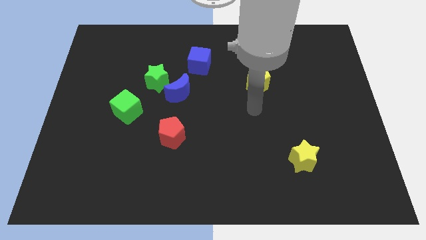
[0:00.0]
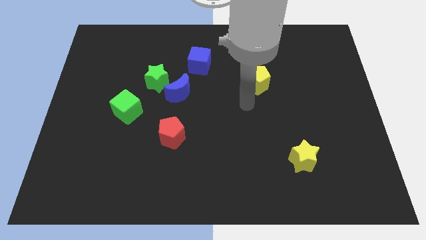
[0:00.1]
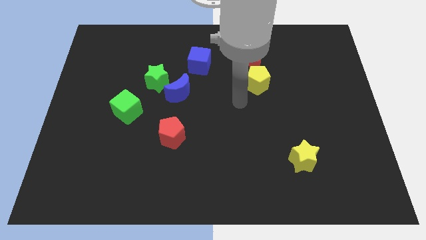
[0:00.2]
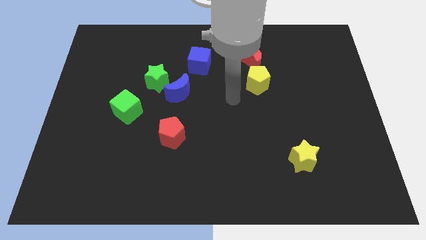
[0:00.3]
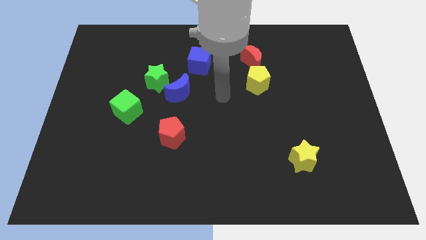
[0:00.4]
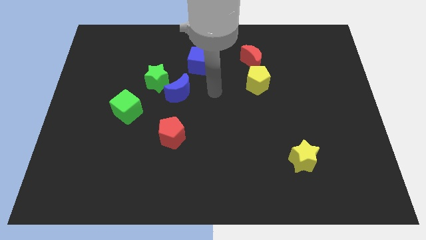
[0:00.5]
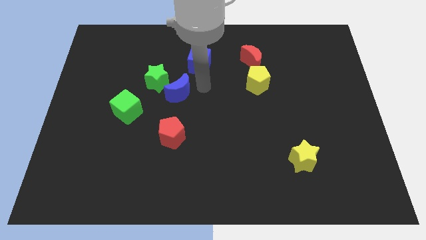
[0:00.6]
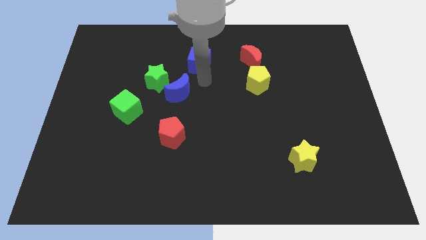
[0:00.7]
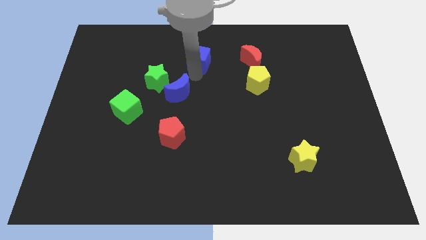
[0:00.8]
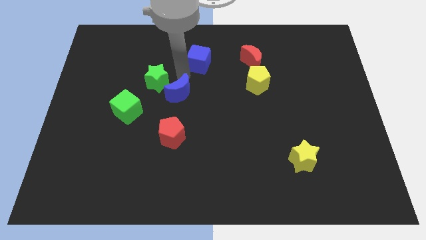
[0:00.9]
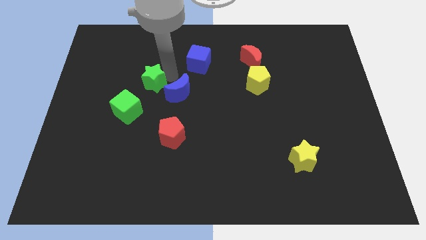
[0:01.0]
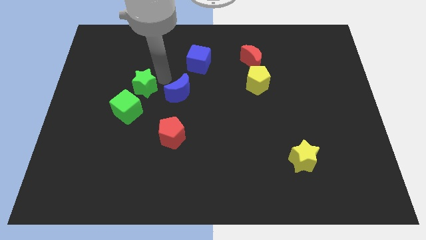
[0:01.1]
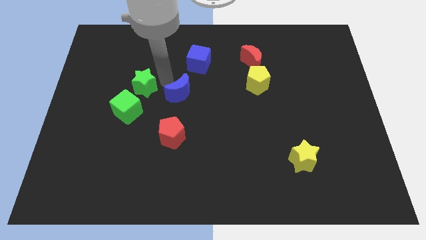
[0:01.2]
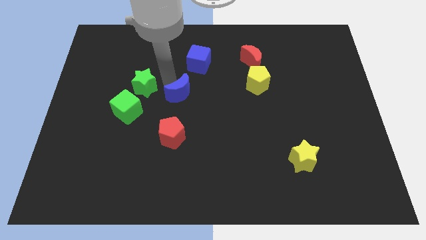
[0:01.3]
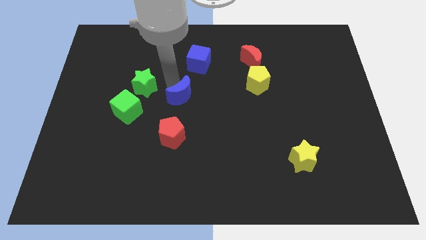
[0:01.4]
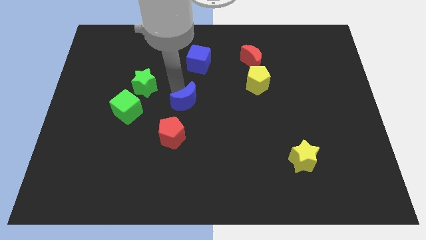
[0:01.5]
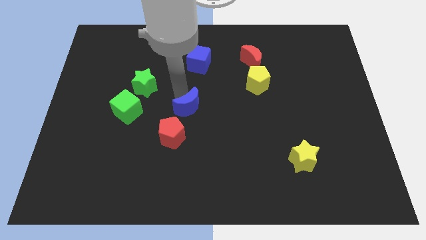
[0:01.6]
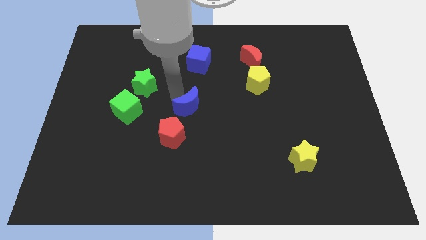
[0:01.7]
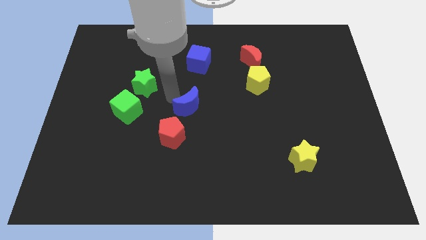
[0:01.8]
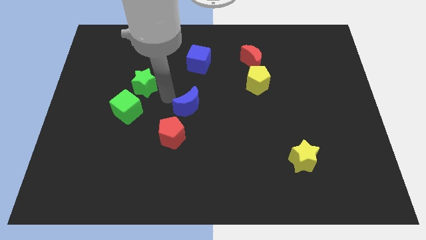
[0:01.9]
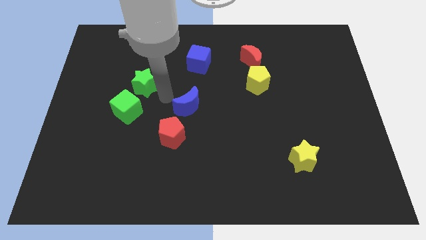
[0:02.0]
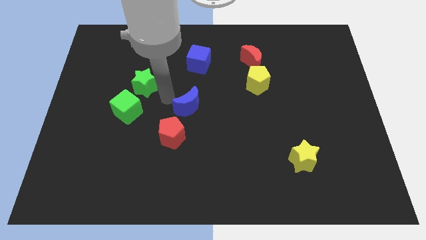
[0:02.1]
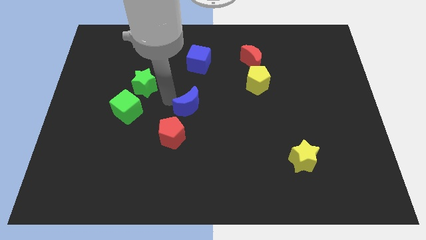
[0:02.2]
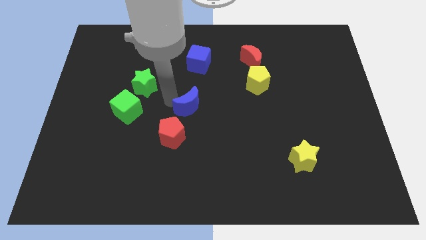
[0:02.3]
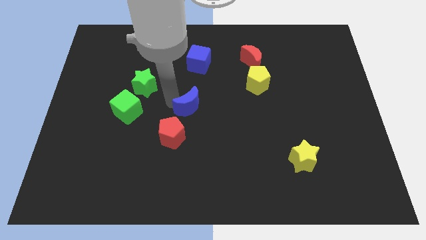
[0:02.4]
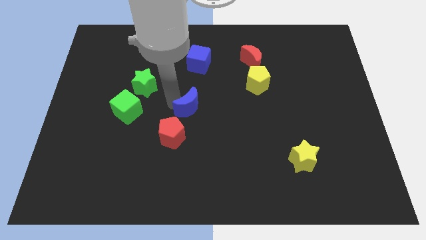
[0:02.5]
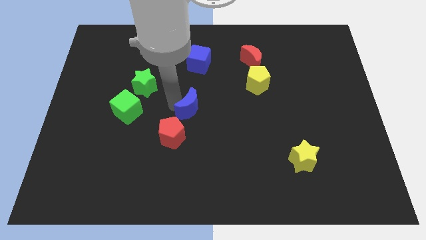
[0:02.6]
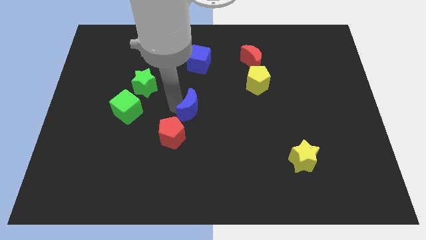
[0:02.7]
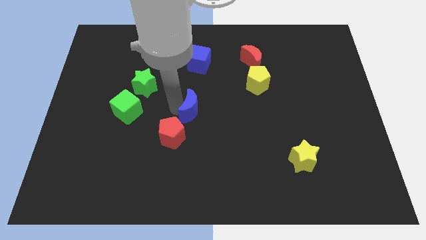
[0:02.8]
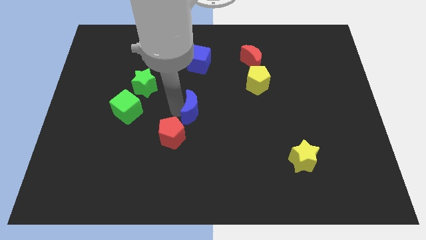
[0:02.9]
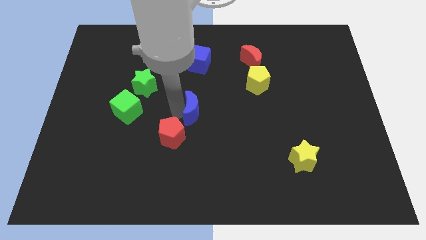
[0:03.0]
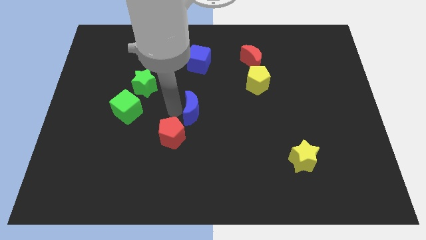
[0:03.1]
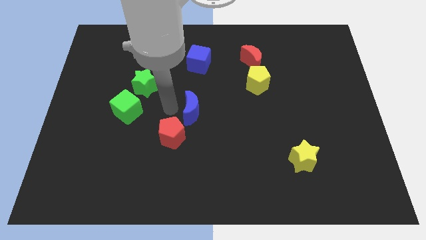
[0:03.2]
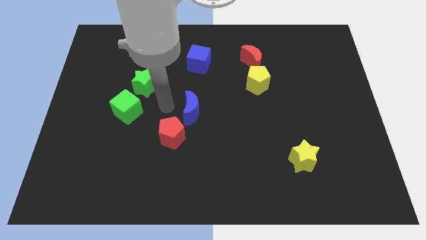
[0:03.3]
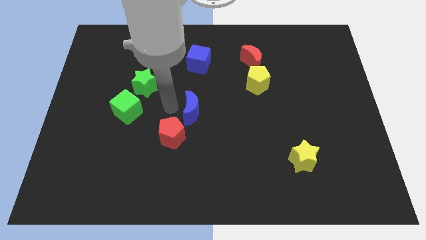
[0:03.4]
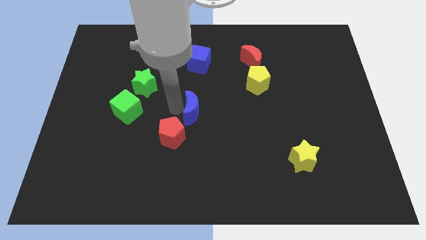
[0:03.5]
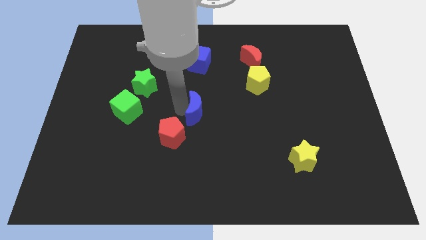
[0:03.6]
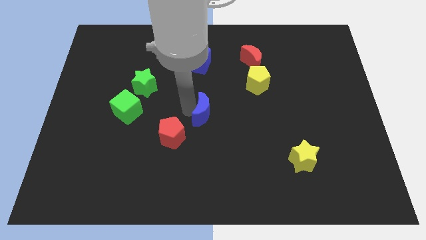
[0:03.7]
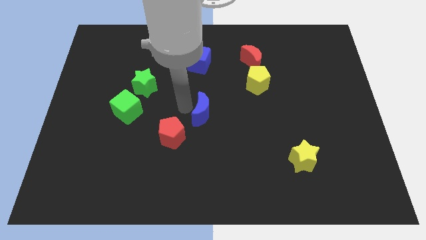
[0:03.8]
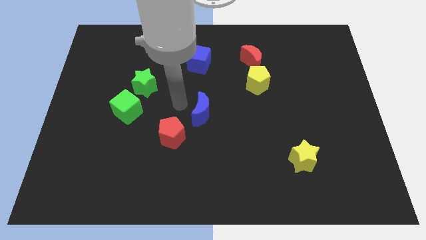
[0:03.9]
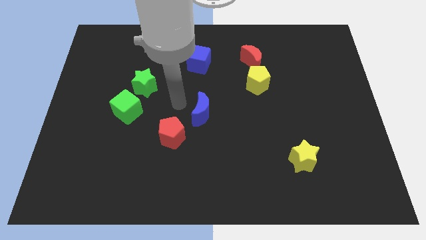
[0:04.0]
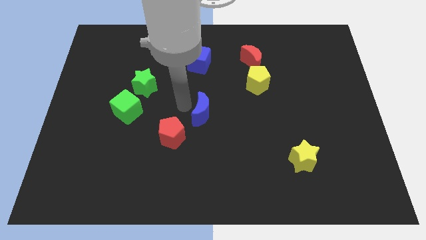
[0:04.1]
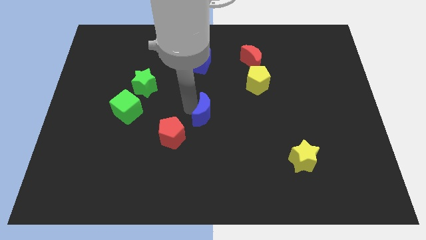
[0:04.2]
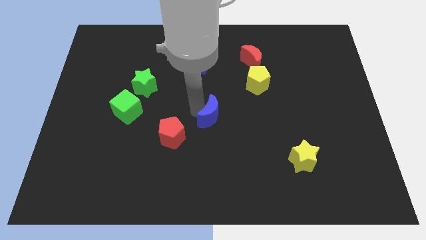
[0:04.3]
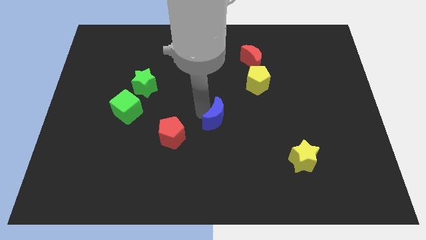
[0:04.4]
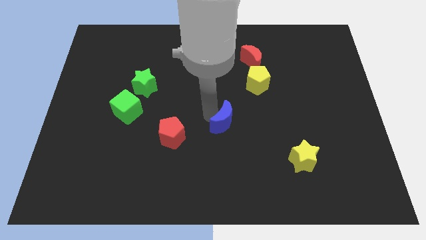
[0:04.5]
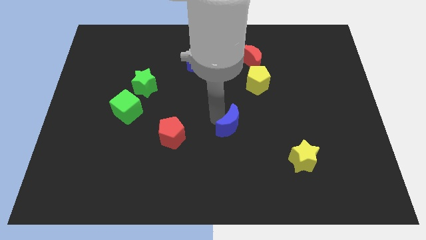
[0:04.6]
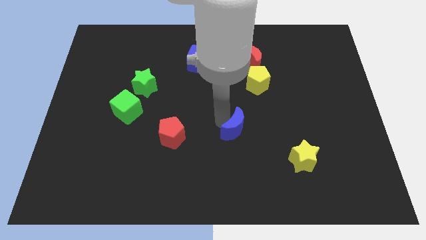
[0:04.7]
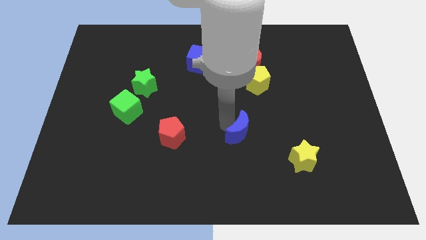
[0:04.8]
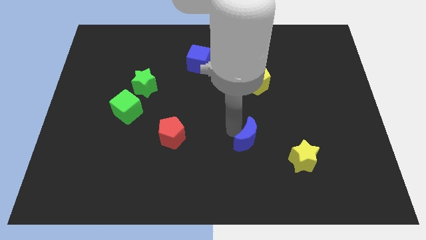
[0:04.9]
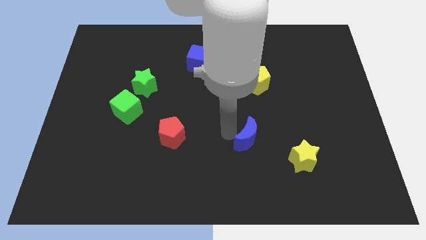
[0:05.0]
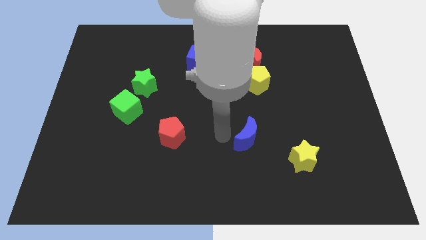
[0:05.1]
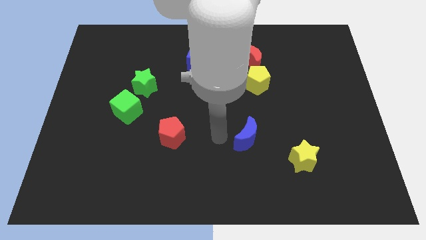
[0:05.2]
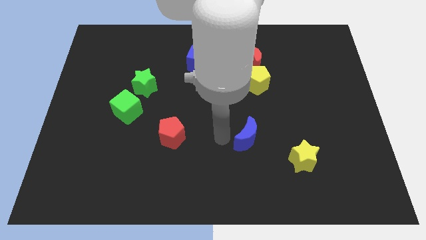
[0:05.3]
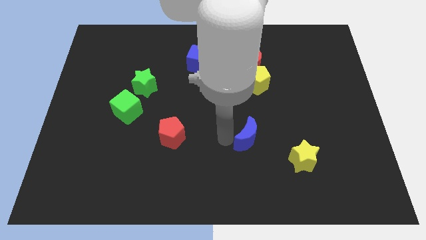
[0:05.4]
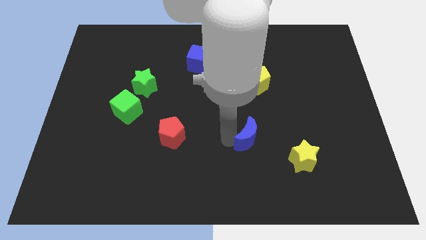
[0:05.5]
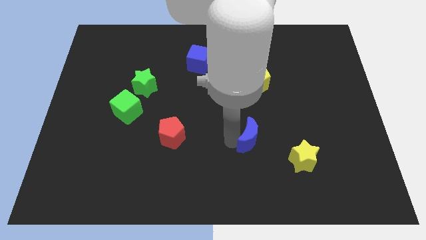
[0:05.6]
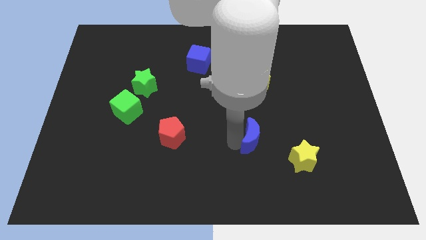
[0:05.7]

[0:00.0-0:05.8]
put the blue moon to the top left of the yellow star

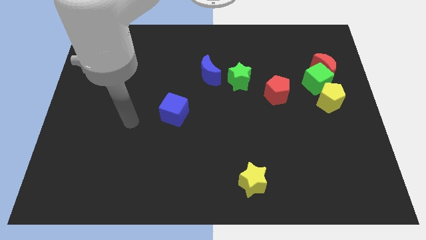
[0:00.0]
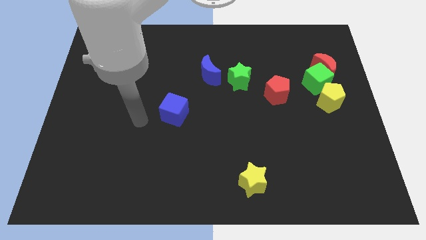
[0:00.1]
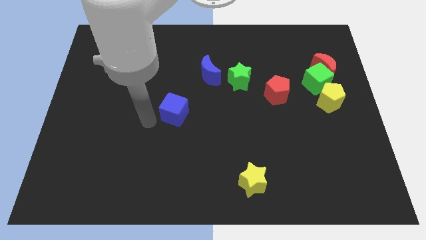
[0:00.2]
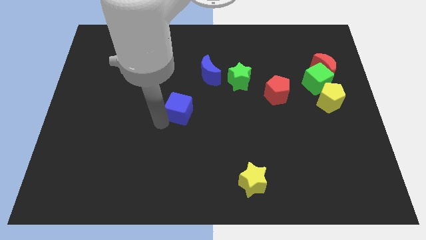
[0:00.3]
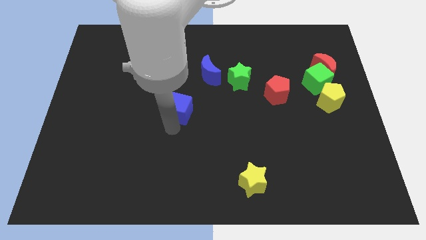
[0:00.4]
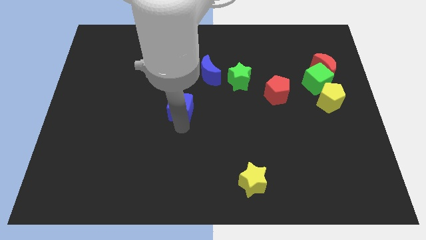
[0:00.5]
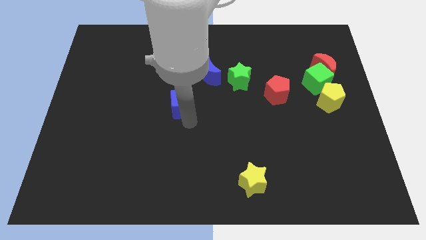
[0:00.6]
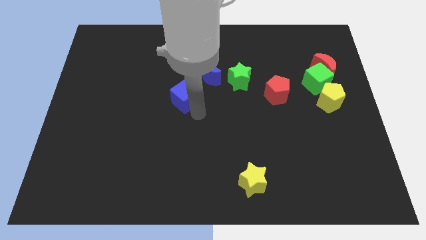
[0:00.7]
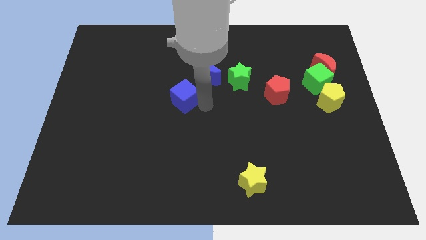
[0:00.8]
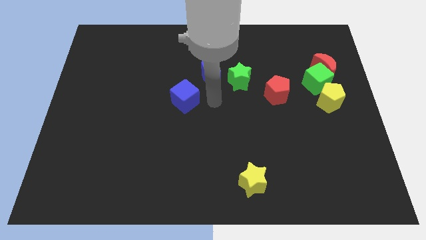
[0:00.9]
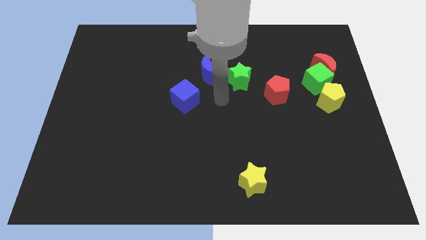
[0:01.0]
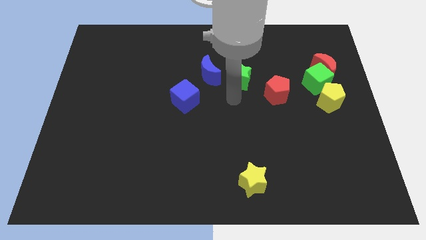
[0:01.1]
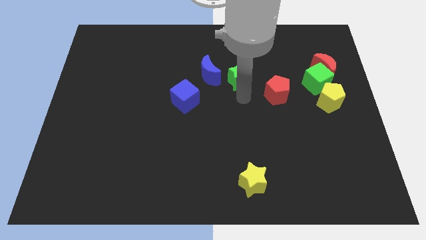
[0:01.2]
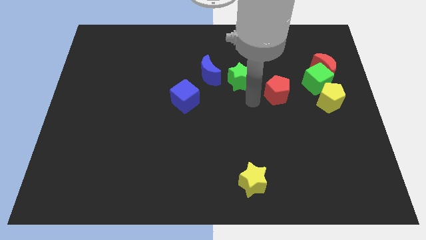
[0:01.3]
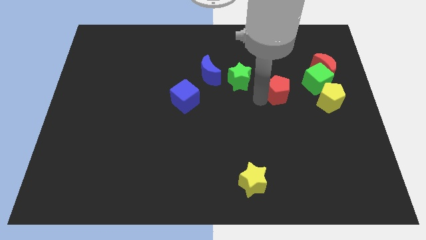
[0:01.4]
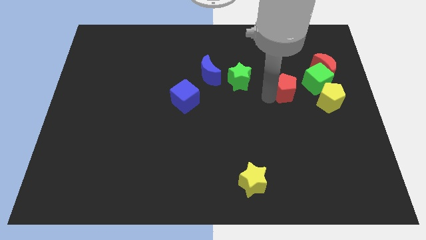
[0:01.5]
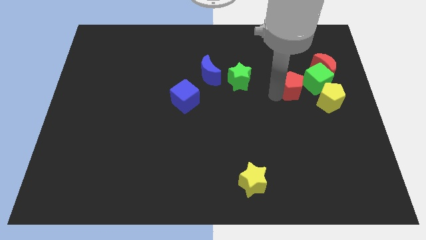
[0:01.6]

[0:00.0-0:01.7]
move the red pentagon to the bottom left of the red moon

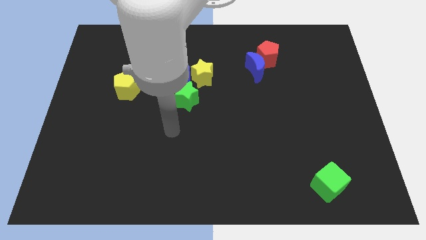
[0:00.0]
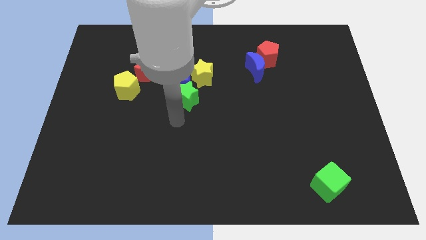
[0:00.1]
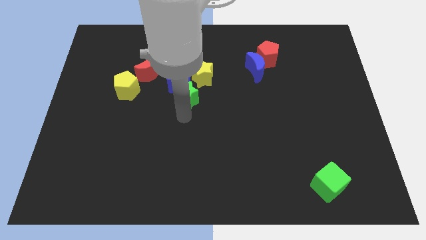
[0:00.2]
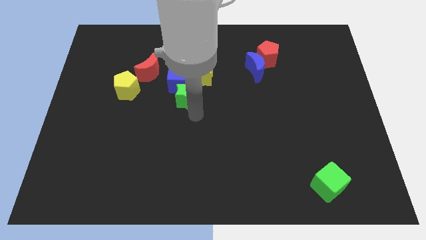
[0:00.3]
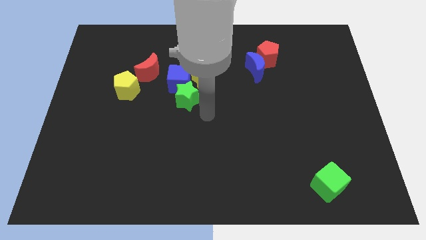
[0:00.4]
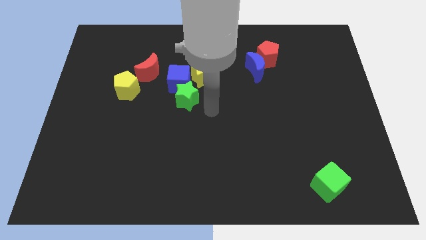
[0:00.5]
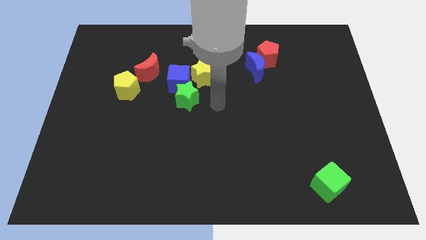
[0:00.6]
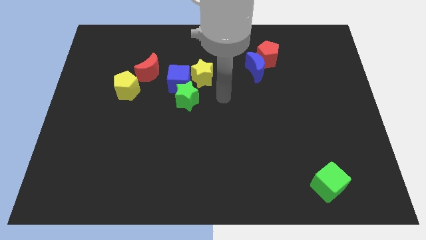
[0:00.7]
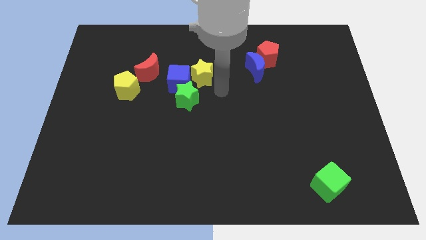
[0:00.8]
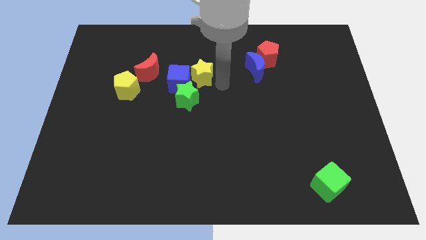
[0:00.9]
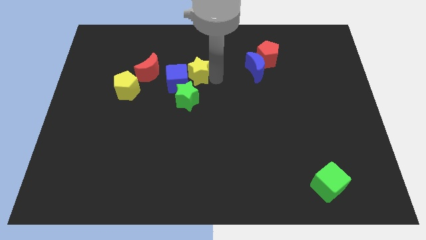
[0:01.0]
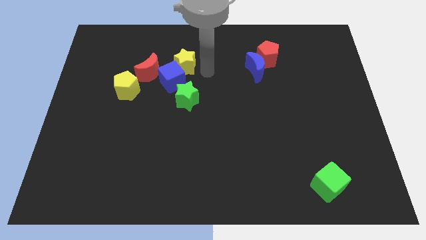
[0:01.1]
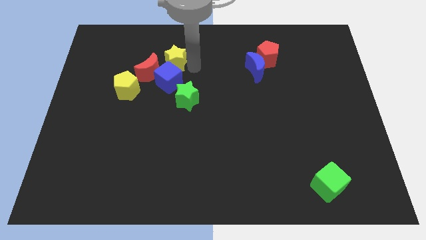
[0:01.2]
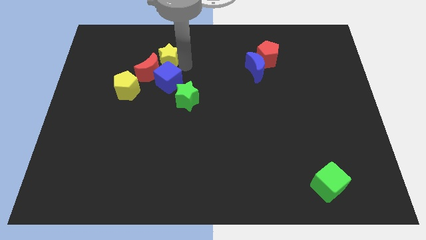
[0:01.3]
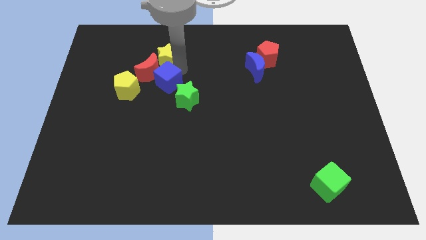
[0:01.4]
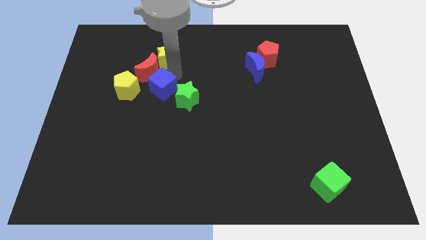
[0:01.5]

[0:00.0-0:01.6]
push the blue cube to the bottom side of the red moon
